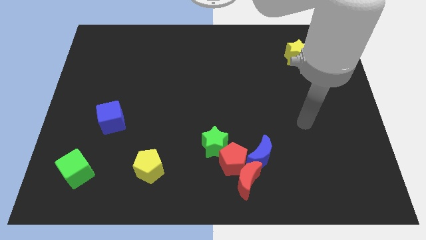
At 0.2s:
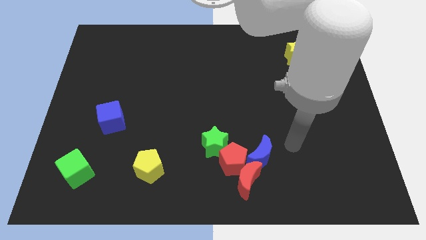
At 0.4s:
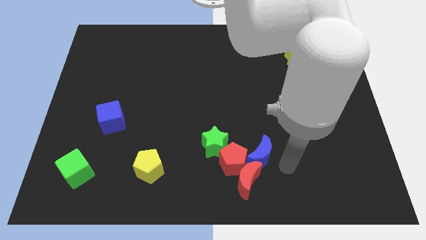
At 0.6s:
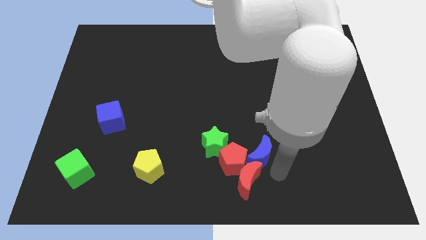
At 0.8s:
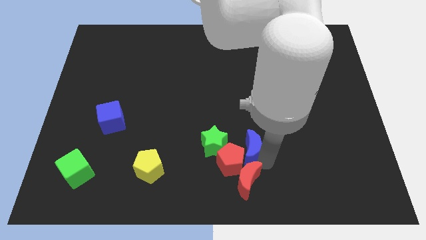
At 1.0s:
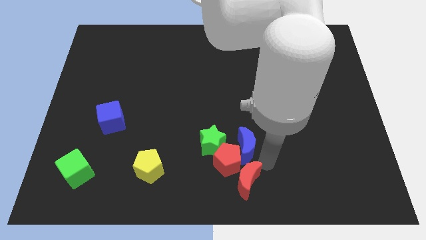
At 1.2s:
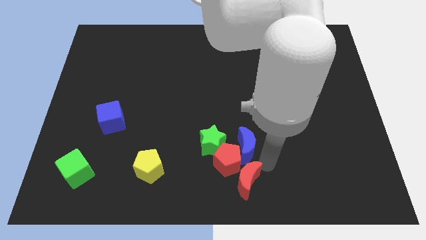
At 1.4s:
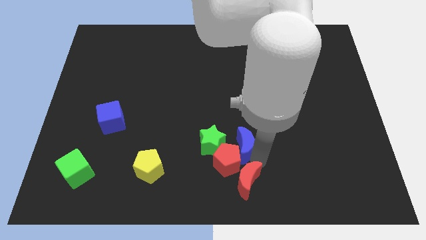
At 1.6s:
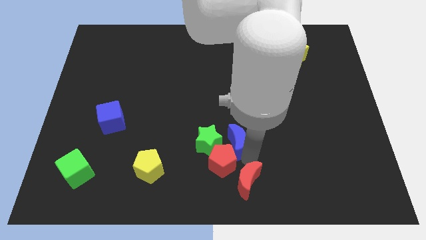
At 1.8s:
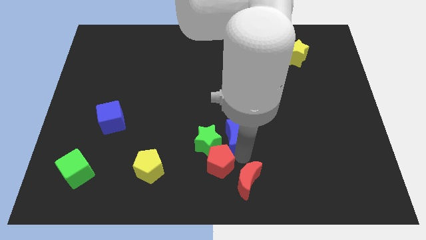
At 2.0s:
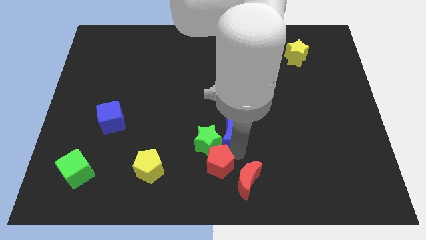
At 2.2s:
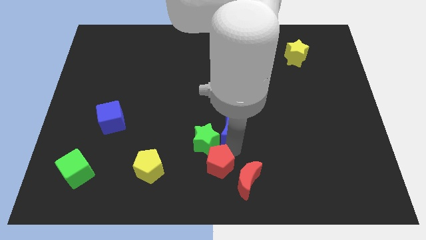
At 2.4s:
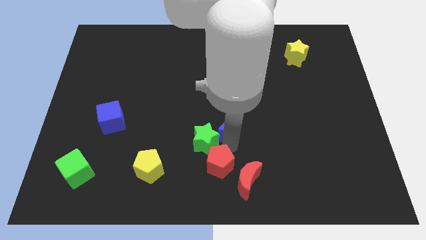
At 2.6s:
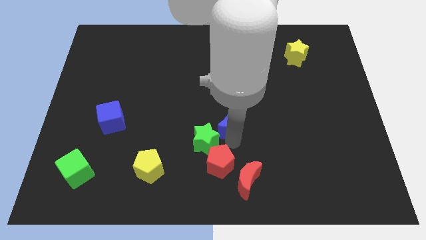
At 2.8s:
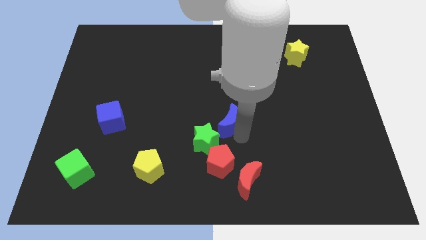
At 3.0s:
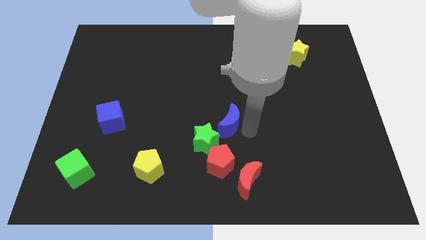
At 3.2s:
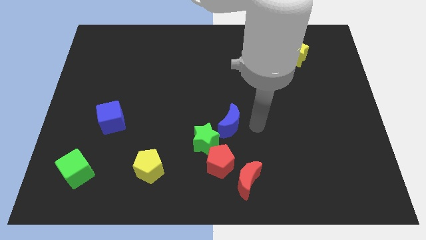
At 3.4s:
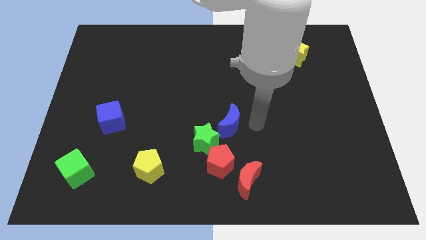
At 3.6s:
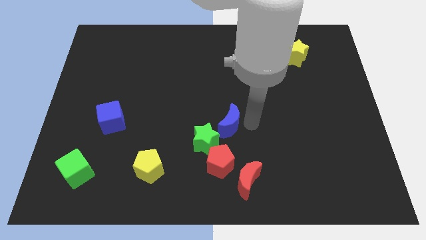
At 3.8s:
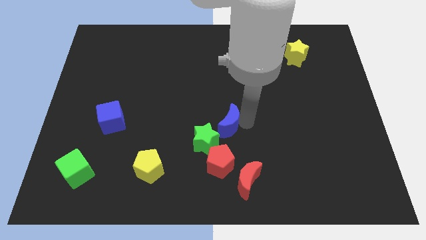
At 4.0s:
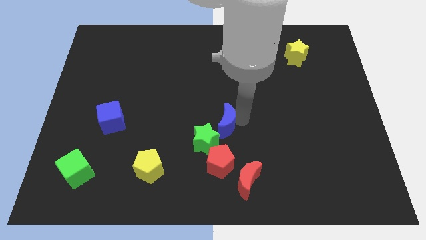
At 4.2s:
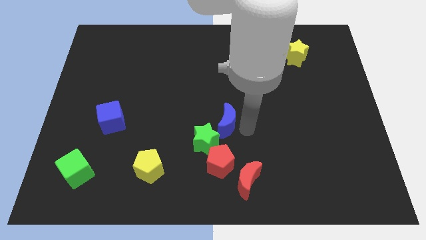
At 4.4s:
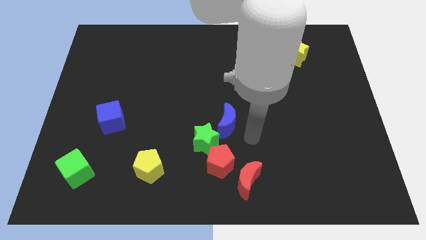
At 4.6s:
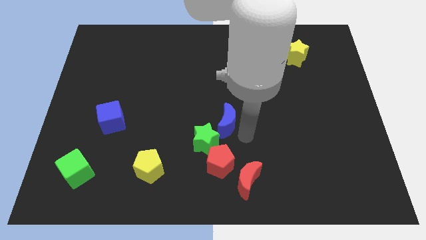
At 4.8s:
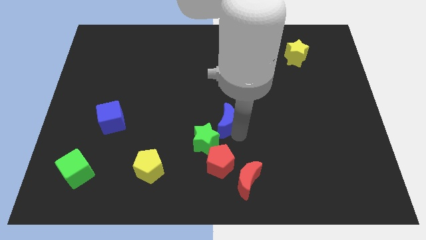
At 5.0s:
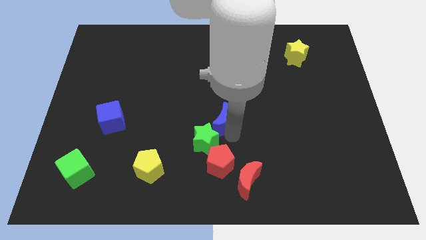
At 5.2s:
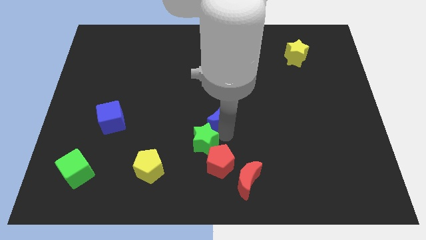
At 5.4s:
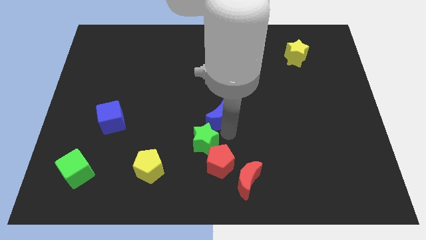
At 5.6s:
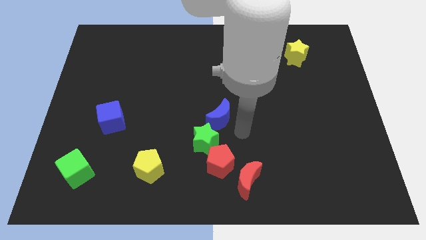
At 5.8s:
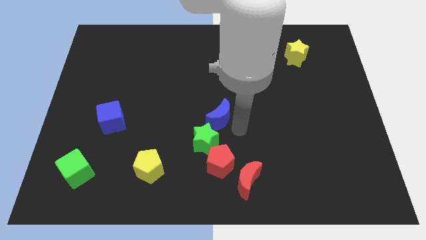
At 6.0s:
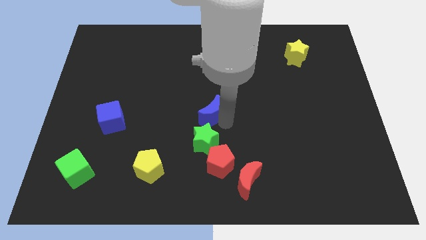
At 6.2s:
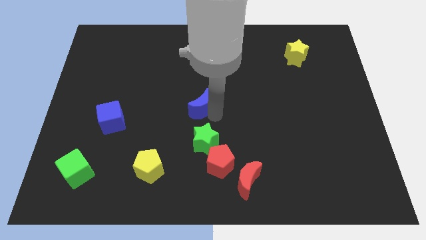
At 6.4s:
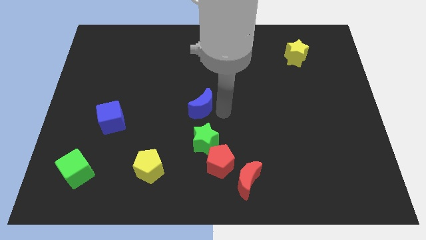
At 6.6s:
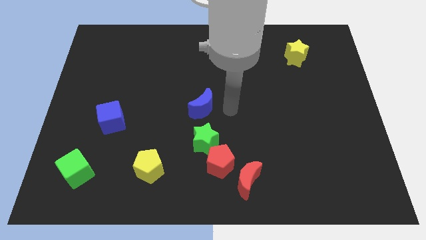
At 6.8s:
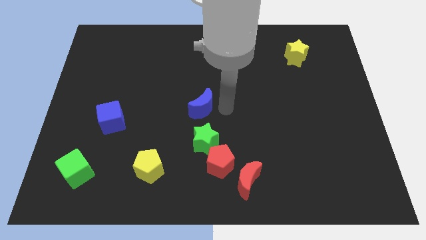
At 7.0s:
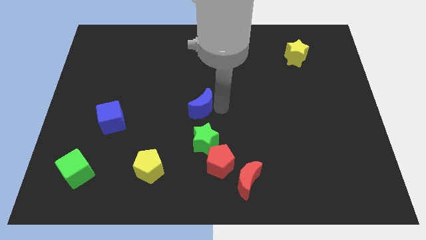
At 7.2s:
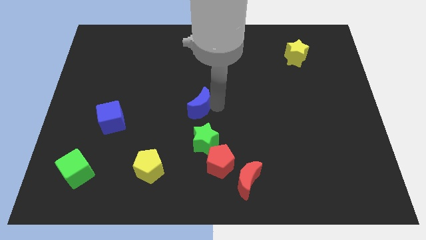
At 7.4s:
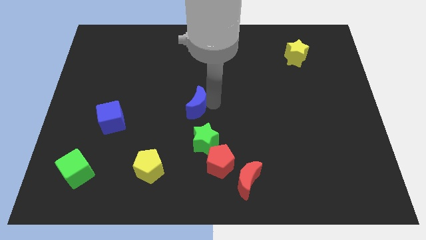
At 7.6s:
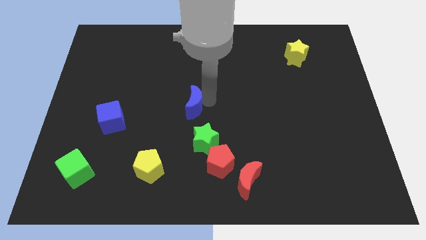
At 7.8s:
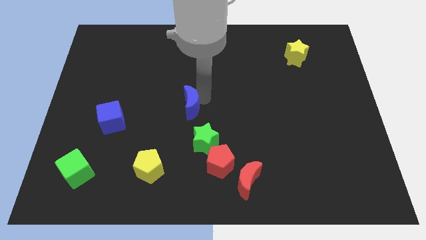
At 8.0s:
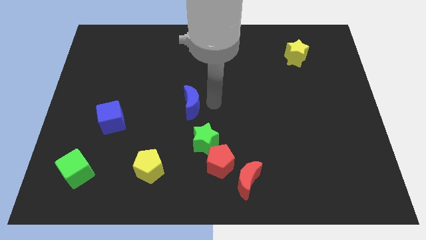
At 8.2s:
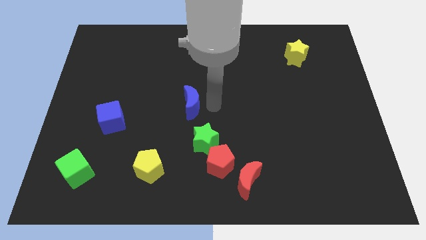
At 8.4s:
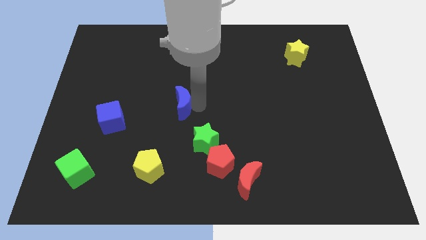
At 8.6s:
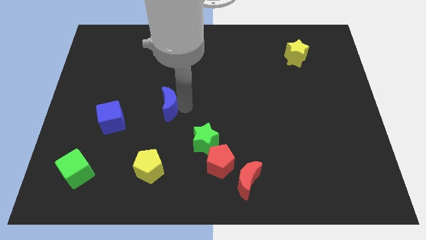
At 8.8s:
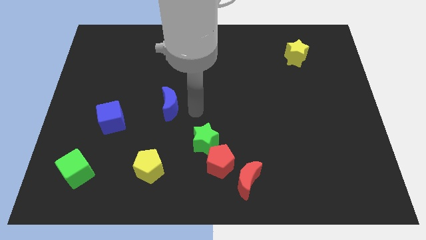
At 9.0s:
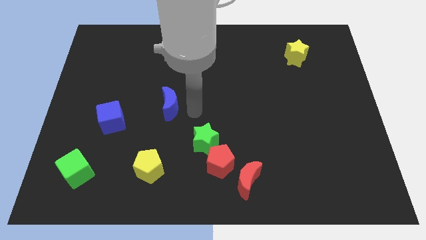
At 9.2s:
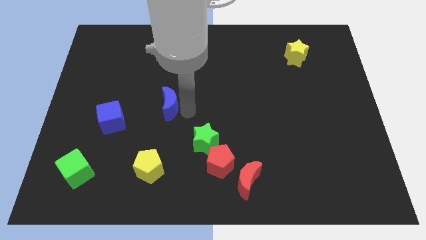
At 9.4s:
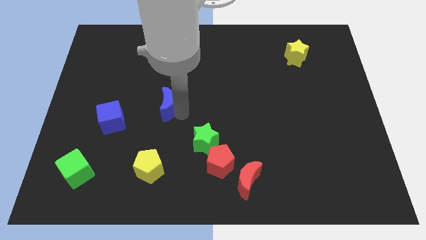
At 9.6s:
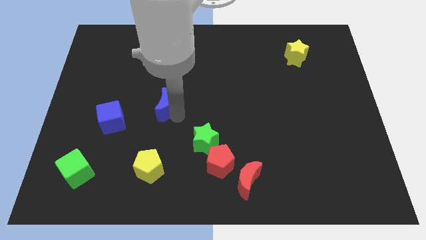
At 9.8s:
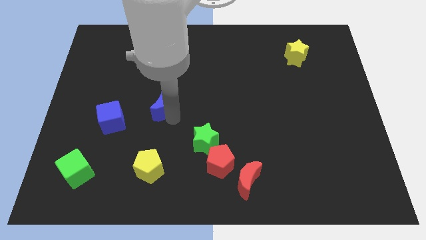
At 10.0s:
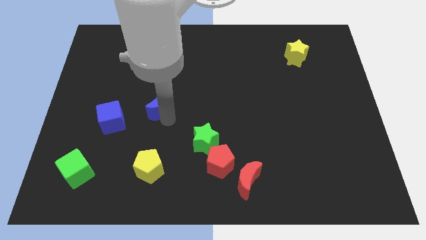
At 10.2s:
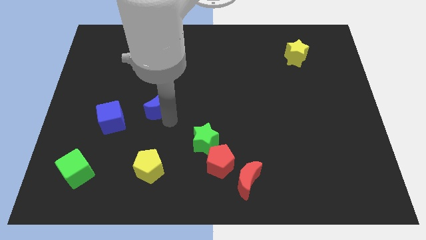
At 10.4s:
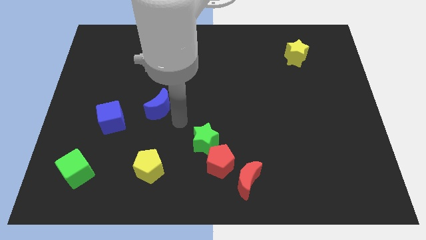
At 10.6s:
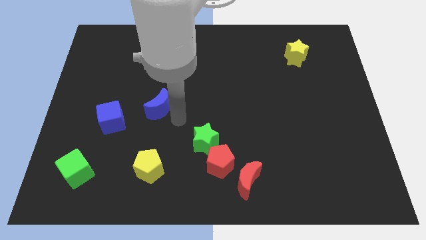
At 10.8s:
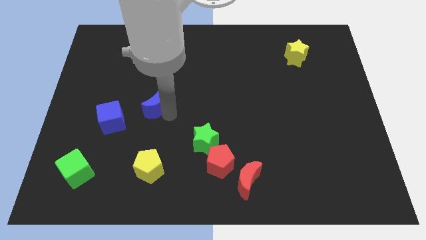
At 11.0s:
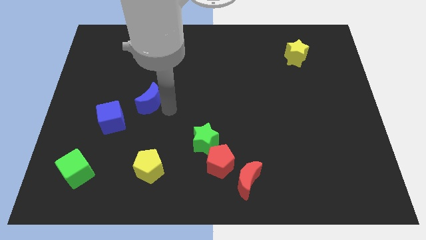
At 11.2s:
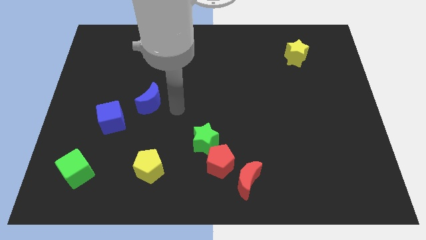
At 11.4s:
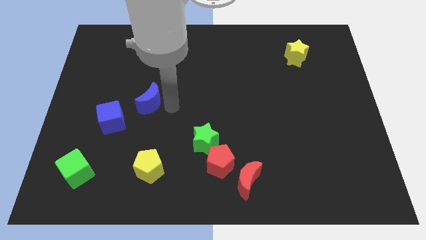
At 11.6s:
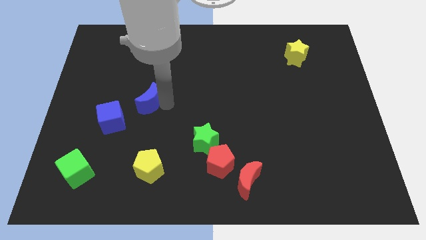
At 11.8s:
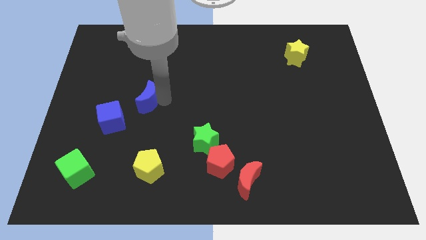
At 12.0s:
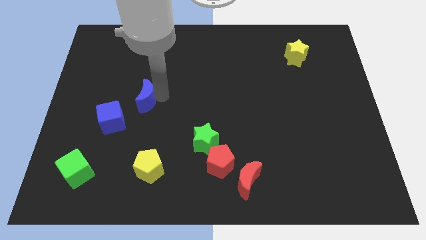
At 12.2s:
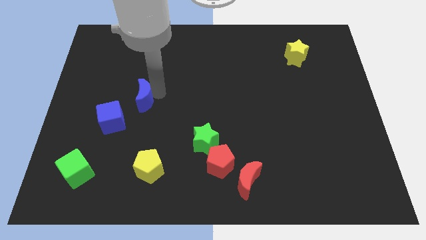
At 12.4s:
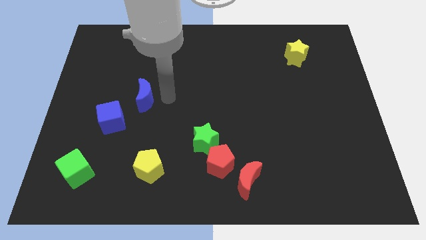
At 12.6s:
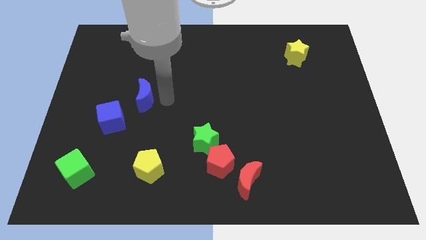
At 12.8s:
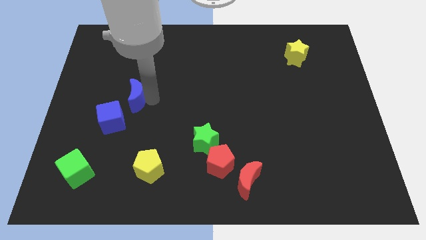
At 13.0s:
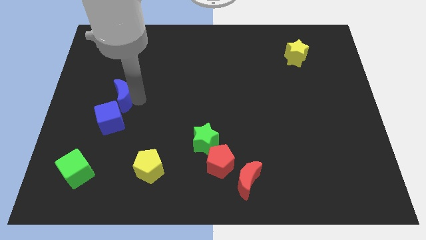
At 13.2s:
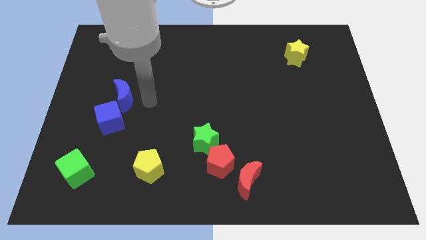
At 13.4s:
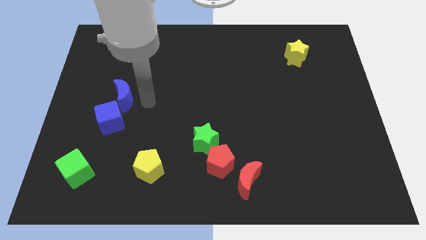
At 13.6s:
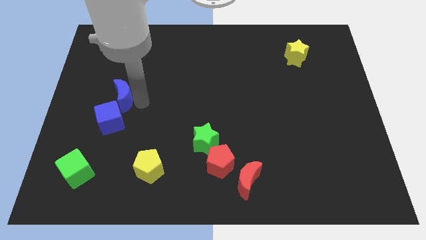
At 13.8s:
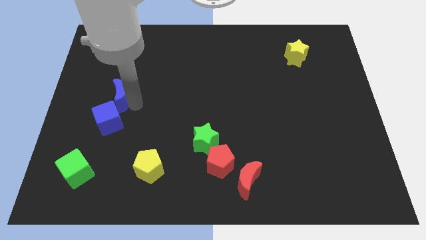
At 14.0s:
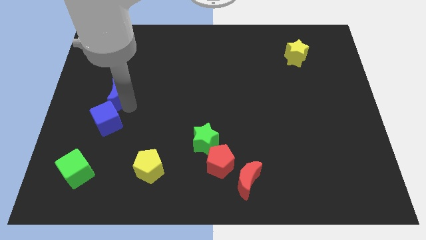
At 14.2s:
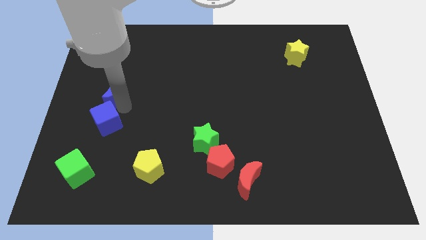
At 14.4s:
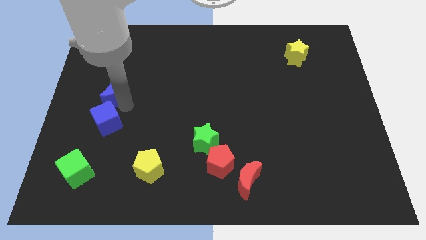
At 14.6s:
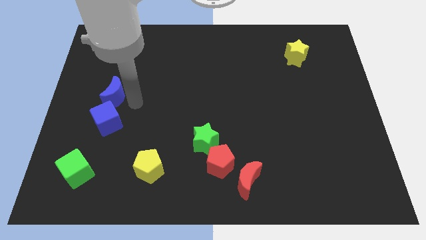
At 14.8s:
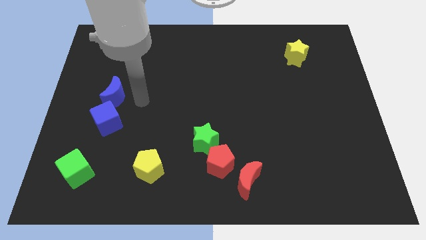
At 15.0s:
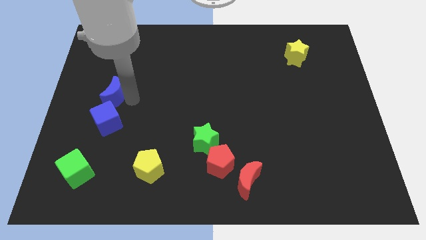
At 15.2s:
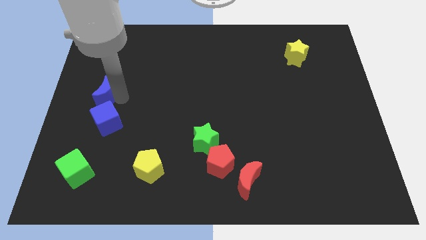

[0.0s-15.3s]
move the blue moon to the left side of the board
